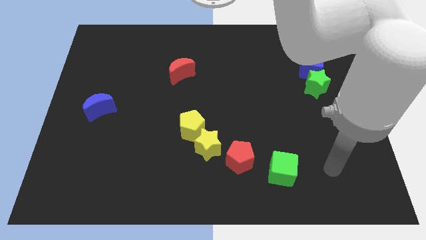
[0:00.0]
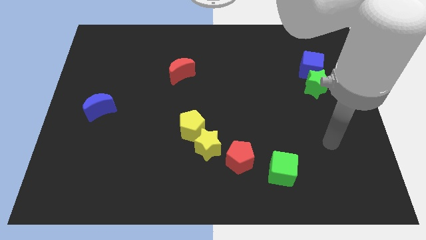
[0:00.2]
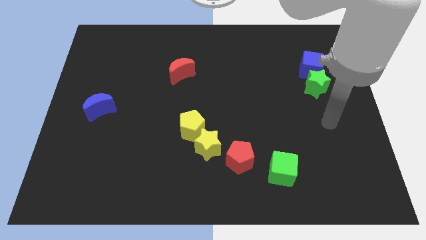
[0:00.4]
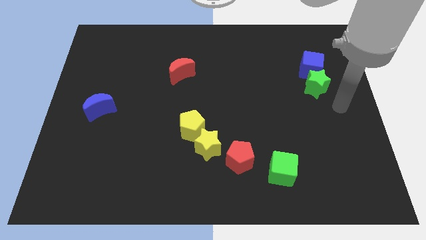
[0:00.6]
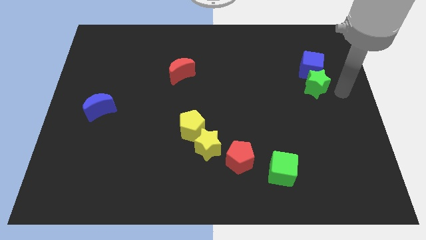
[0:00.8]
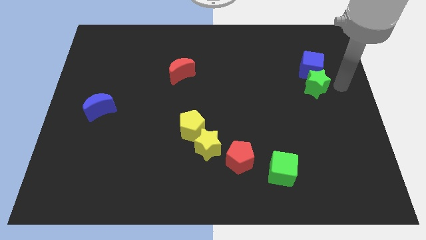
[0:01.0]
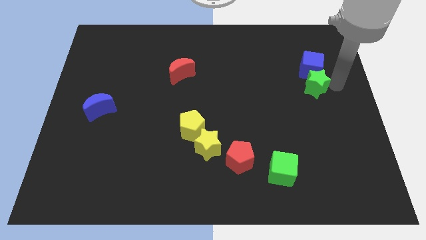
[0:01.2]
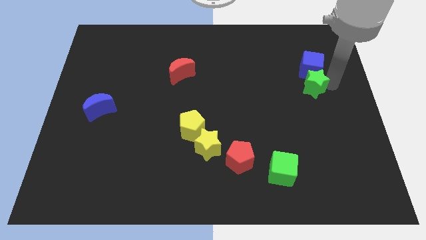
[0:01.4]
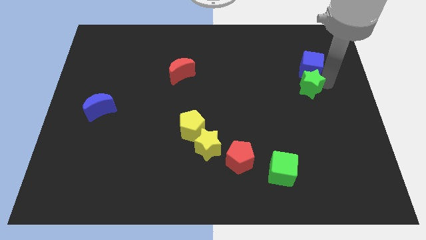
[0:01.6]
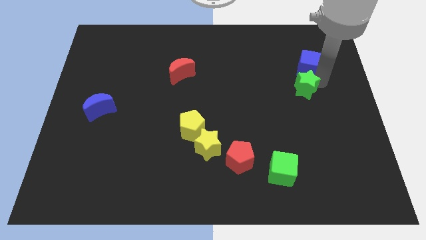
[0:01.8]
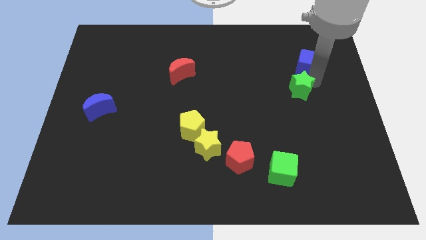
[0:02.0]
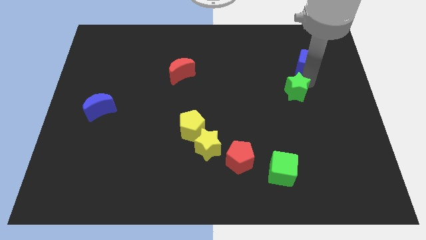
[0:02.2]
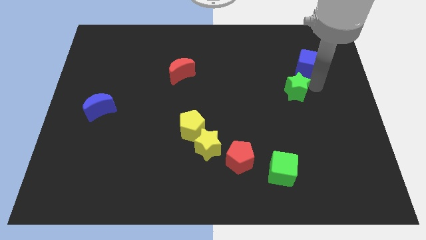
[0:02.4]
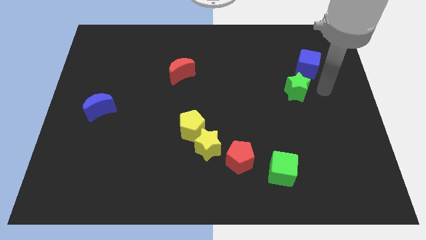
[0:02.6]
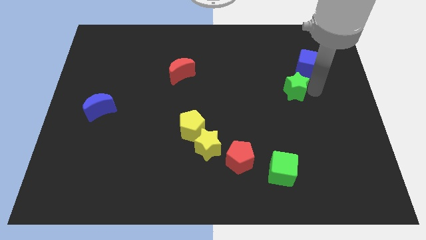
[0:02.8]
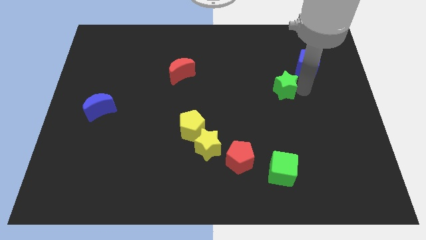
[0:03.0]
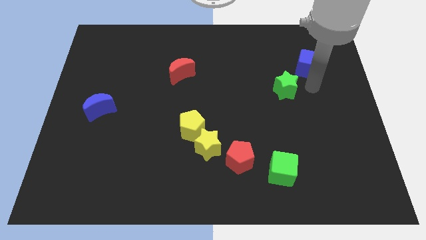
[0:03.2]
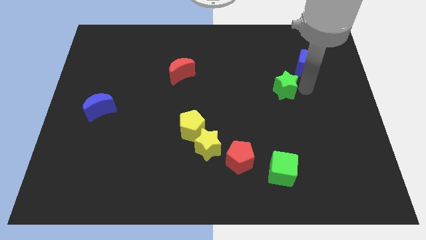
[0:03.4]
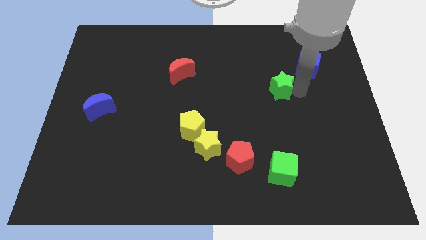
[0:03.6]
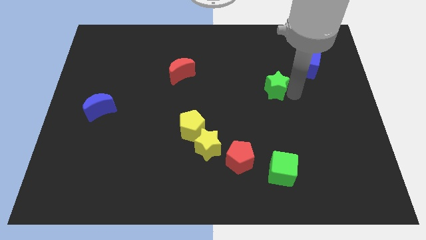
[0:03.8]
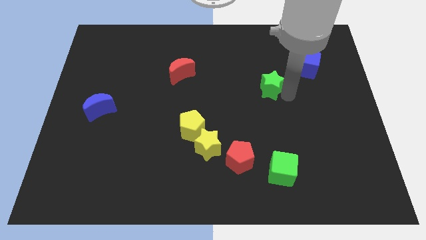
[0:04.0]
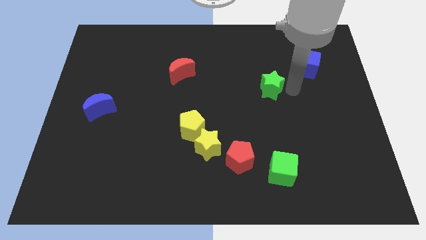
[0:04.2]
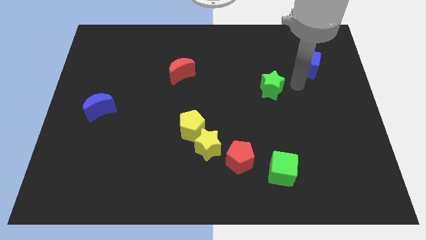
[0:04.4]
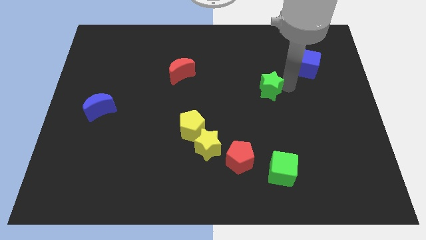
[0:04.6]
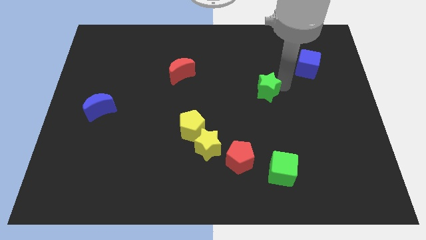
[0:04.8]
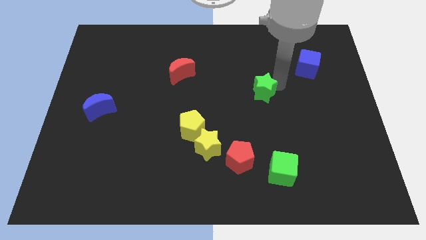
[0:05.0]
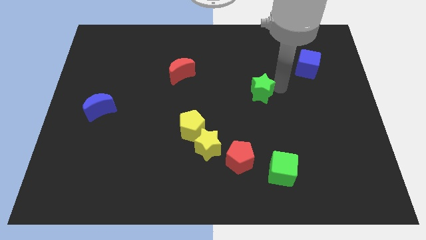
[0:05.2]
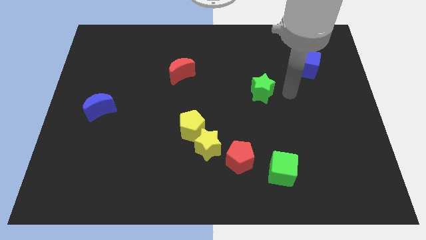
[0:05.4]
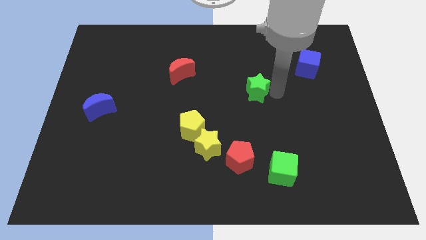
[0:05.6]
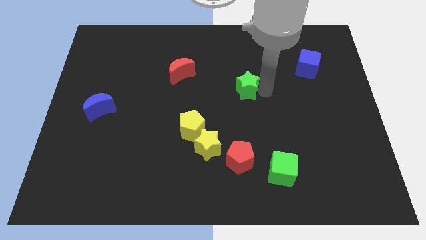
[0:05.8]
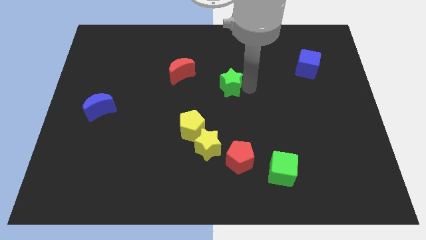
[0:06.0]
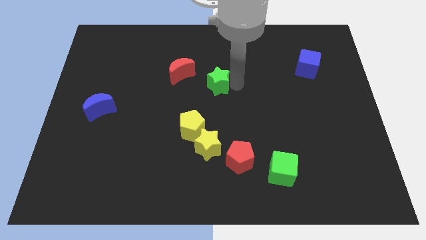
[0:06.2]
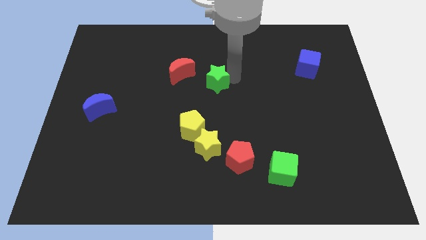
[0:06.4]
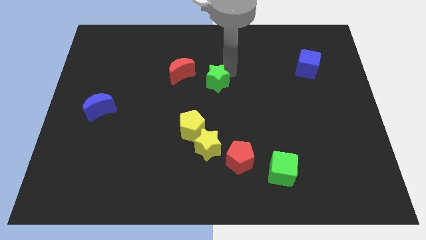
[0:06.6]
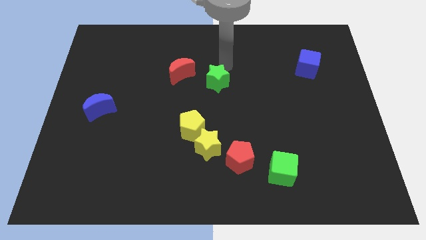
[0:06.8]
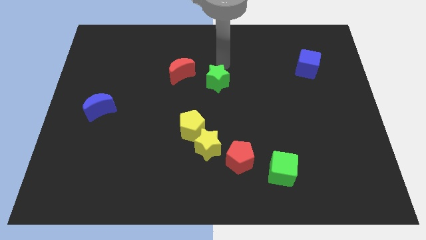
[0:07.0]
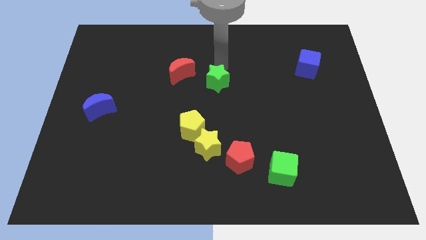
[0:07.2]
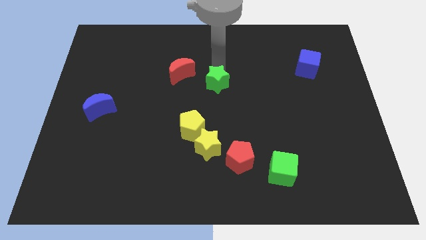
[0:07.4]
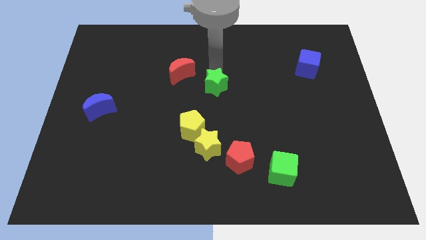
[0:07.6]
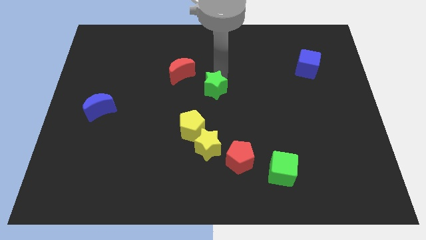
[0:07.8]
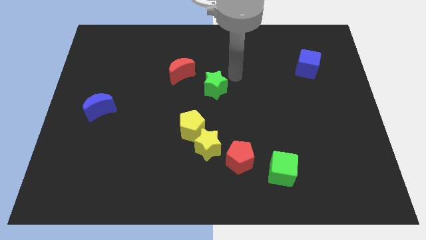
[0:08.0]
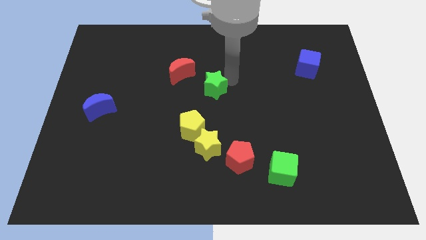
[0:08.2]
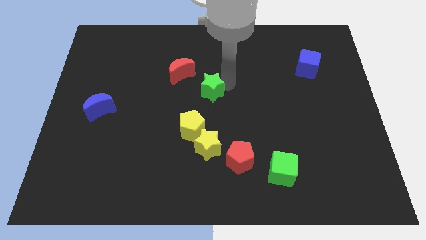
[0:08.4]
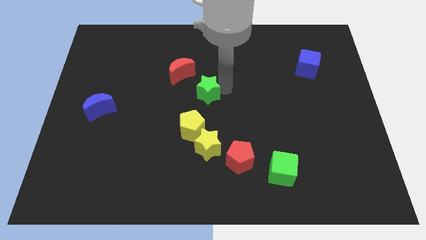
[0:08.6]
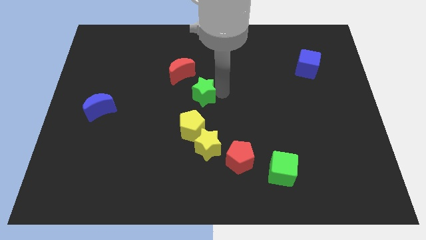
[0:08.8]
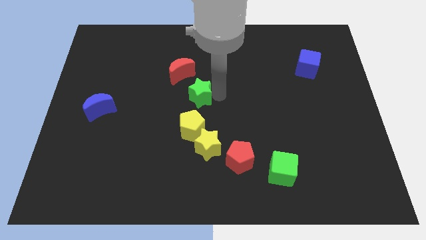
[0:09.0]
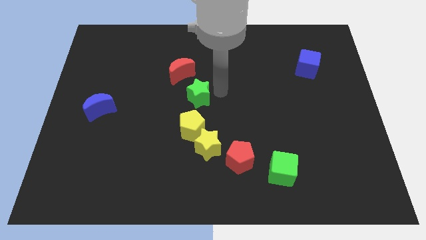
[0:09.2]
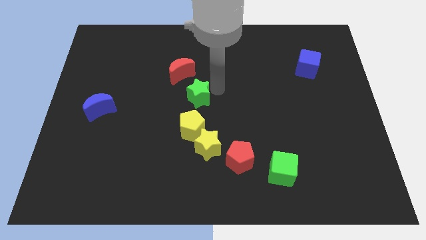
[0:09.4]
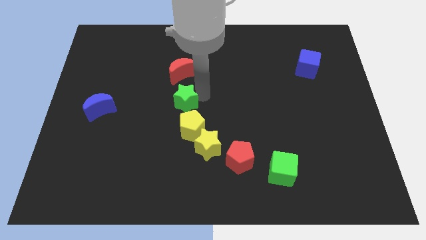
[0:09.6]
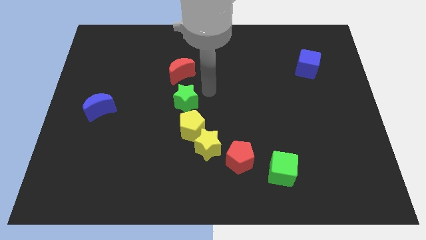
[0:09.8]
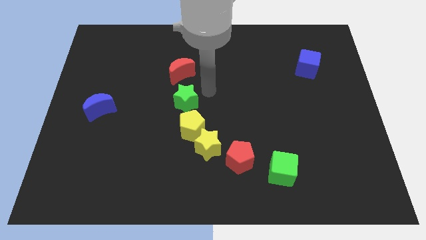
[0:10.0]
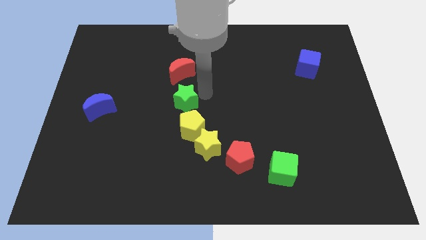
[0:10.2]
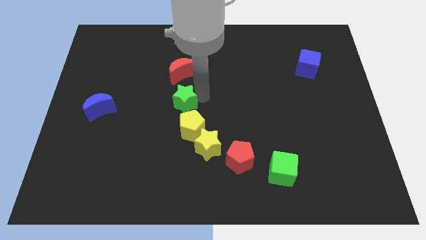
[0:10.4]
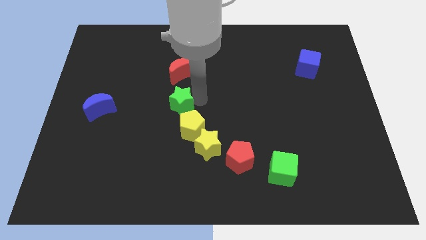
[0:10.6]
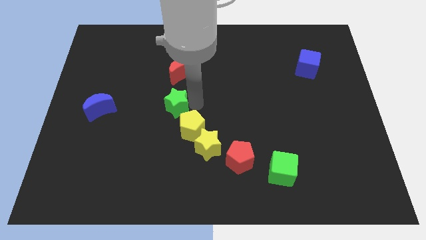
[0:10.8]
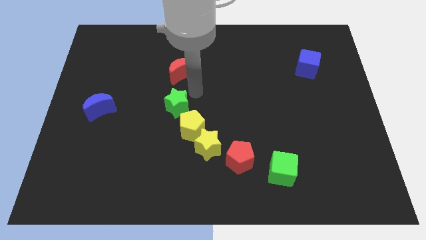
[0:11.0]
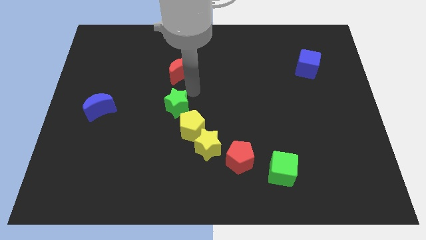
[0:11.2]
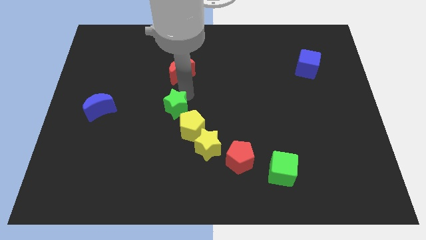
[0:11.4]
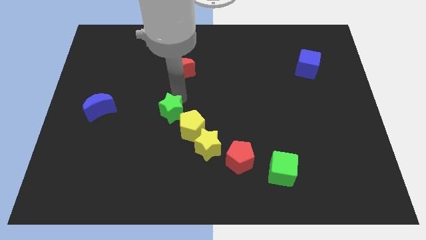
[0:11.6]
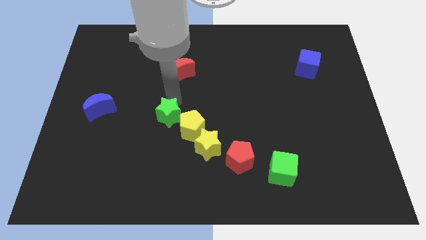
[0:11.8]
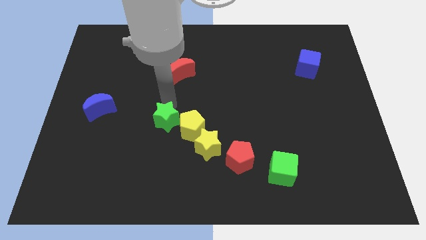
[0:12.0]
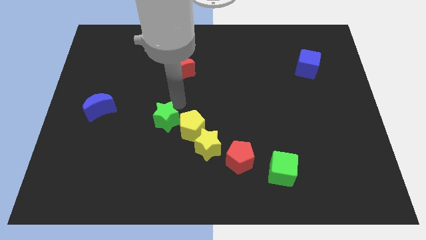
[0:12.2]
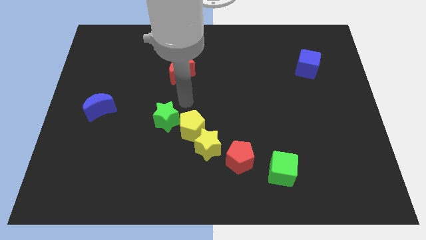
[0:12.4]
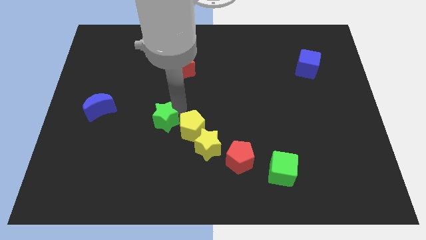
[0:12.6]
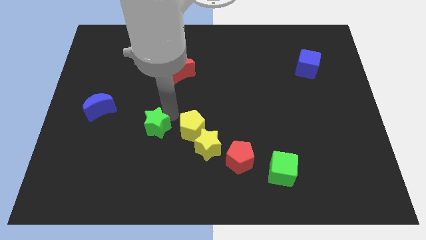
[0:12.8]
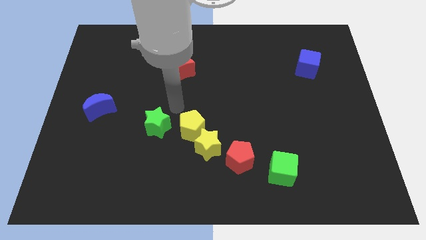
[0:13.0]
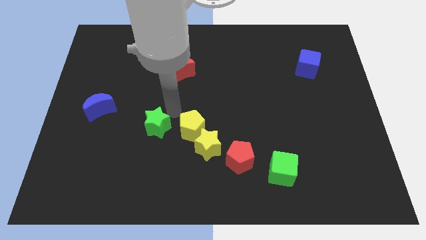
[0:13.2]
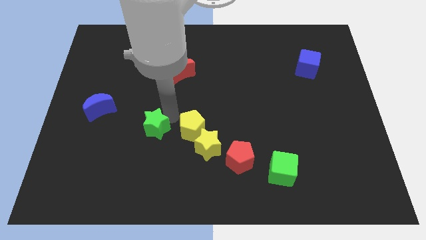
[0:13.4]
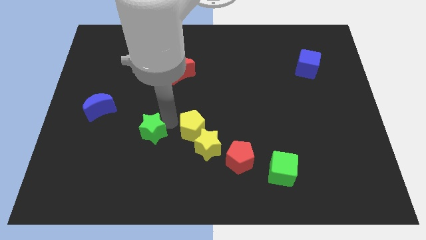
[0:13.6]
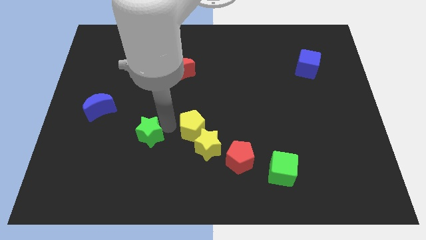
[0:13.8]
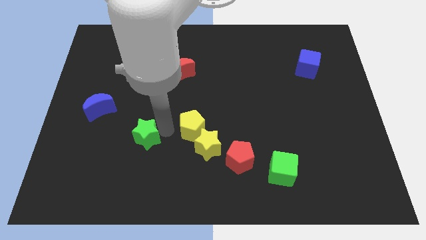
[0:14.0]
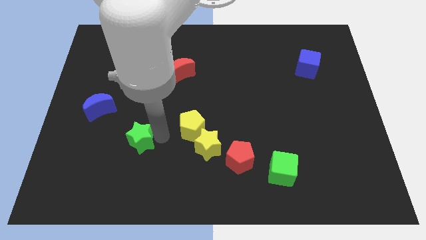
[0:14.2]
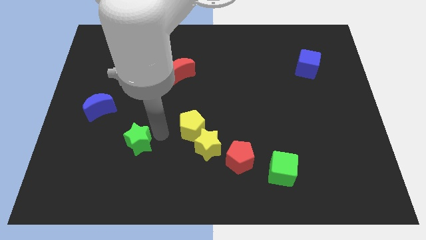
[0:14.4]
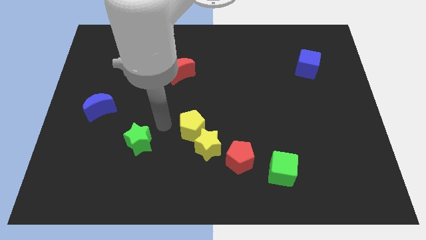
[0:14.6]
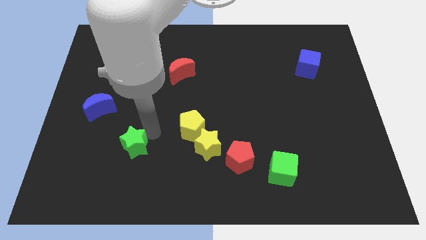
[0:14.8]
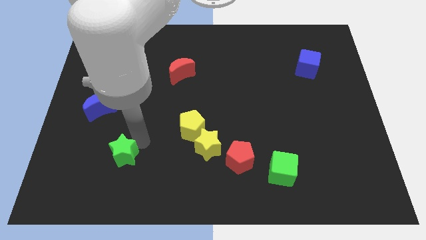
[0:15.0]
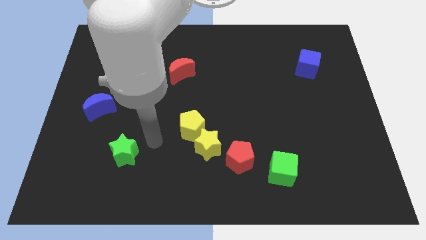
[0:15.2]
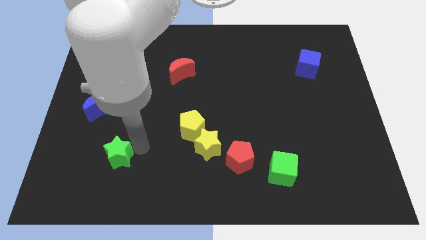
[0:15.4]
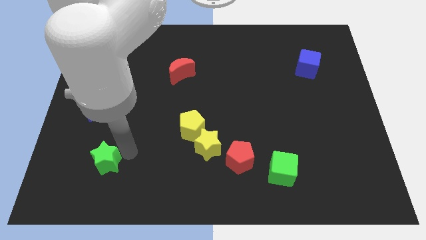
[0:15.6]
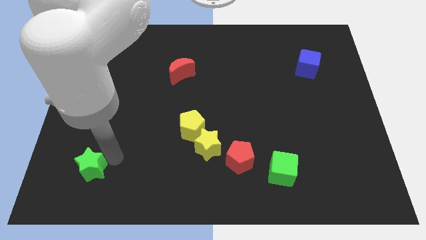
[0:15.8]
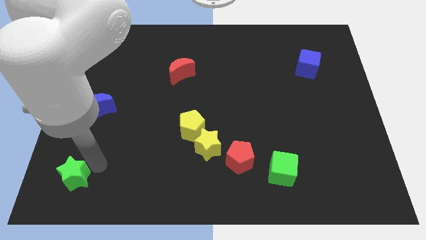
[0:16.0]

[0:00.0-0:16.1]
move the green star to the bottom left corner
